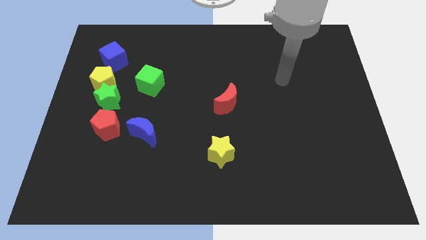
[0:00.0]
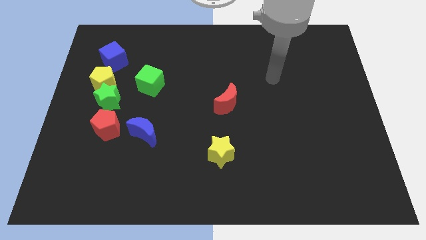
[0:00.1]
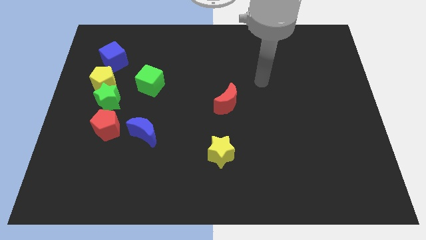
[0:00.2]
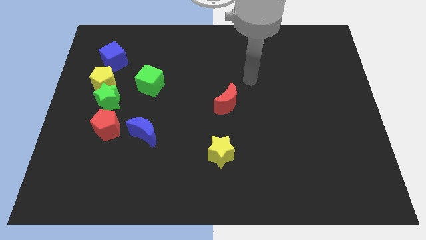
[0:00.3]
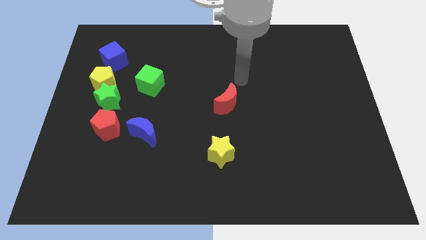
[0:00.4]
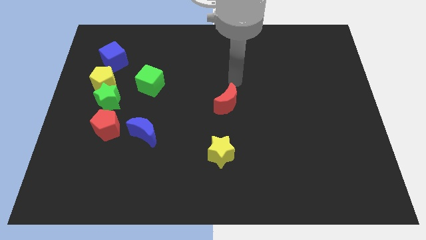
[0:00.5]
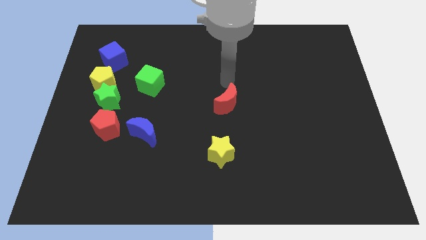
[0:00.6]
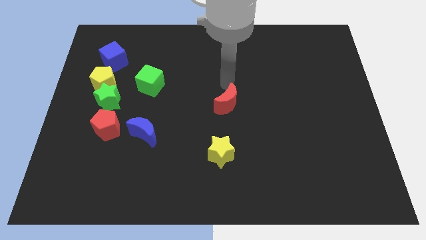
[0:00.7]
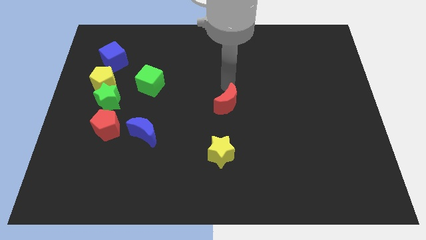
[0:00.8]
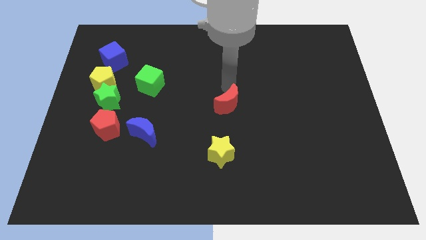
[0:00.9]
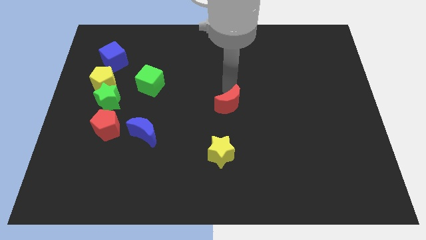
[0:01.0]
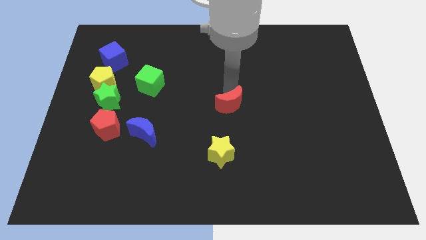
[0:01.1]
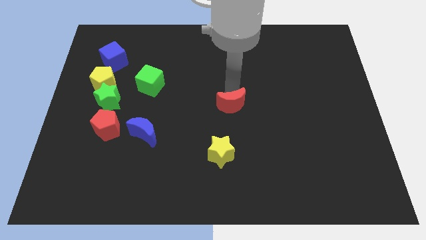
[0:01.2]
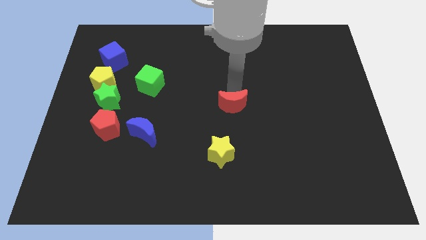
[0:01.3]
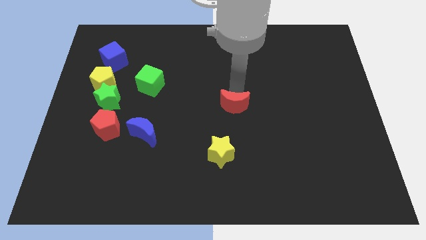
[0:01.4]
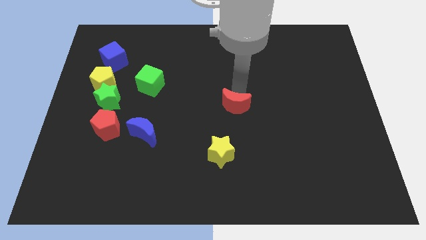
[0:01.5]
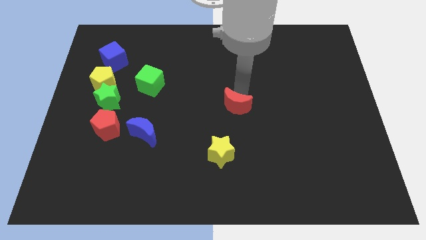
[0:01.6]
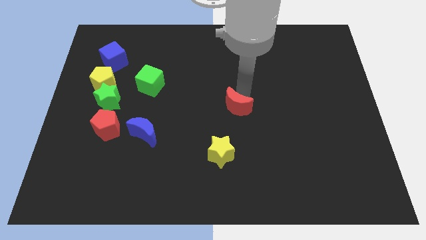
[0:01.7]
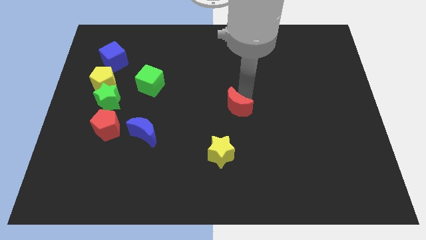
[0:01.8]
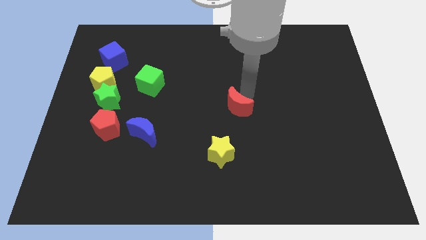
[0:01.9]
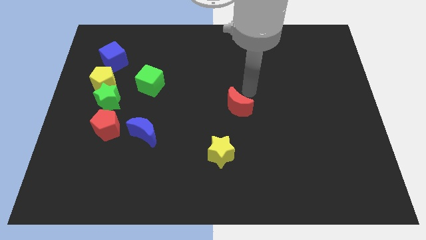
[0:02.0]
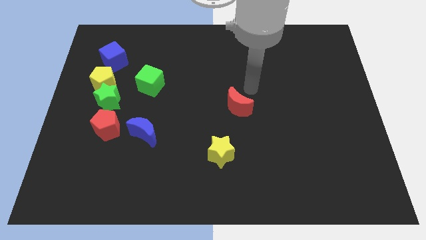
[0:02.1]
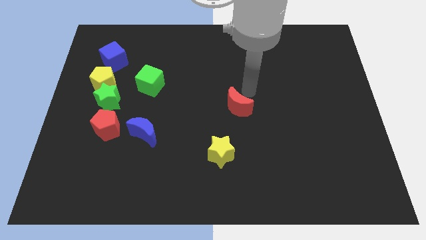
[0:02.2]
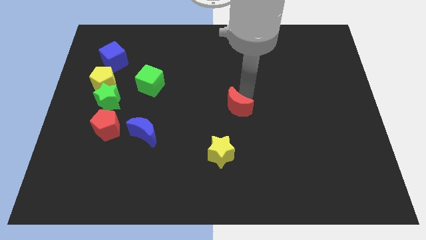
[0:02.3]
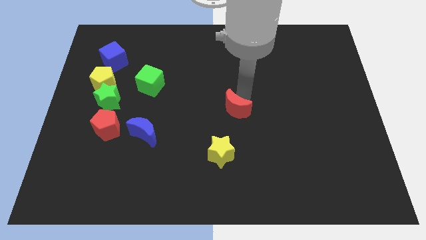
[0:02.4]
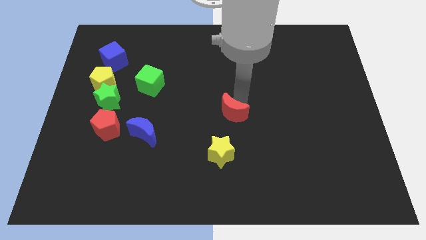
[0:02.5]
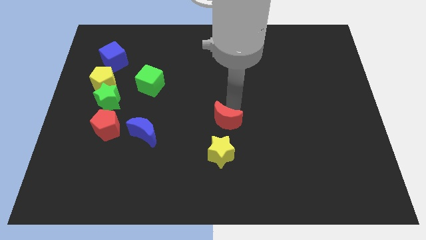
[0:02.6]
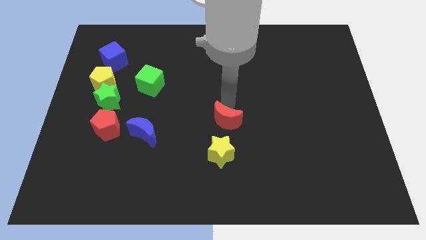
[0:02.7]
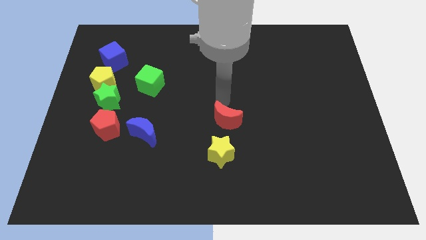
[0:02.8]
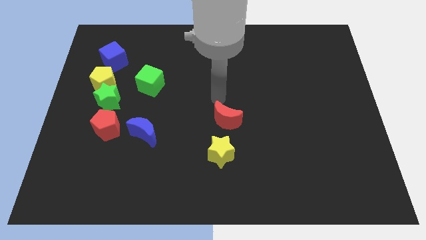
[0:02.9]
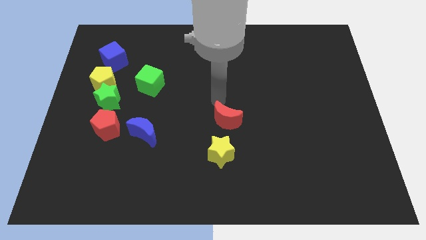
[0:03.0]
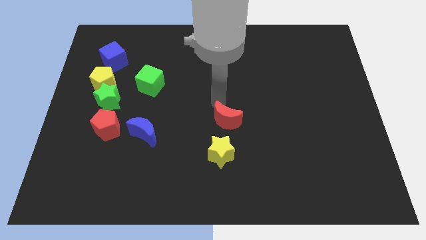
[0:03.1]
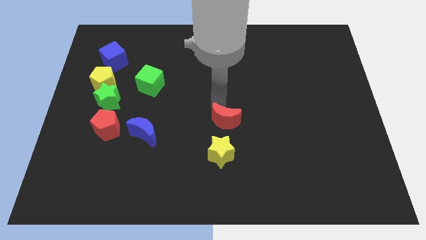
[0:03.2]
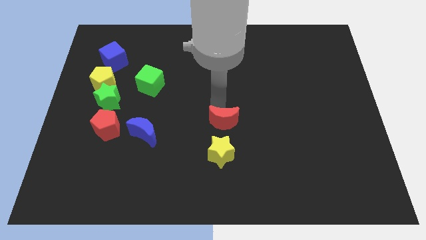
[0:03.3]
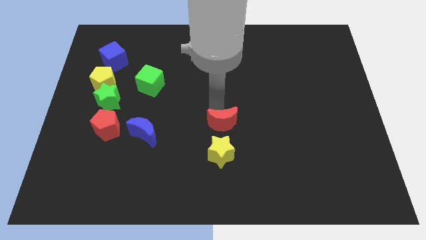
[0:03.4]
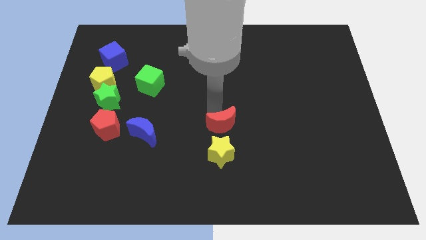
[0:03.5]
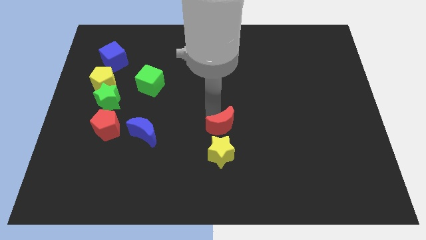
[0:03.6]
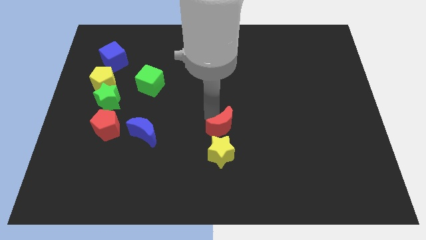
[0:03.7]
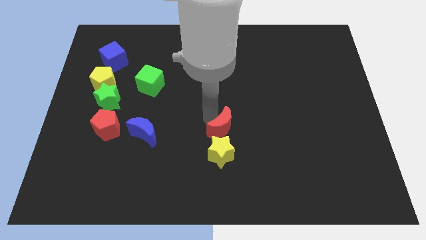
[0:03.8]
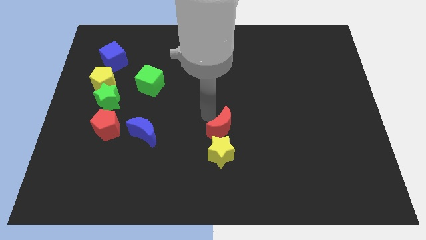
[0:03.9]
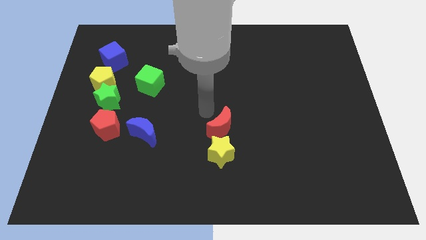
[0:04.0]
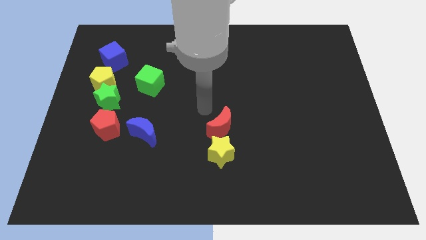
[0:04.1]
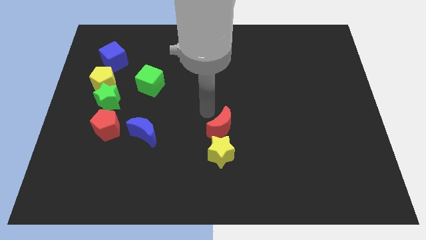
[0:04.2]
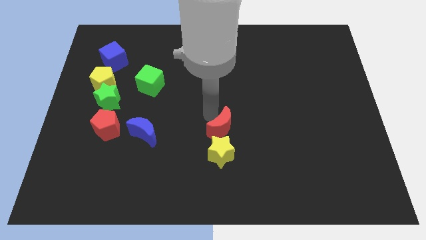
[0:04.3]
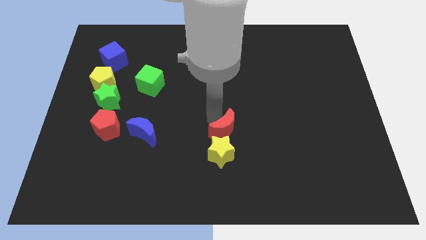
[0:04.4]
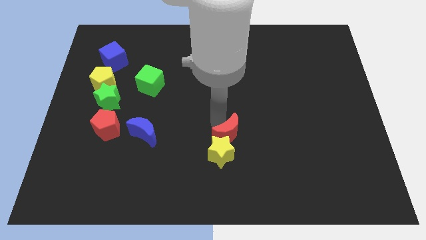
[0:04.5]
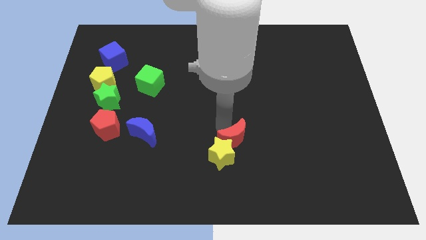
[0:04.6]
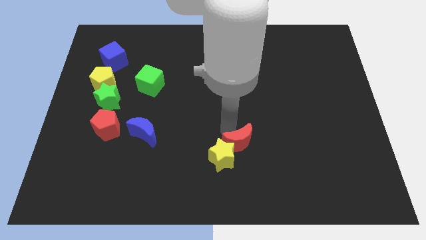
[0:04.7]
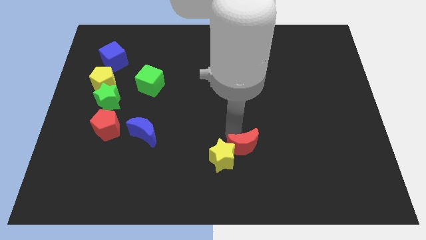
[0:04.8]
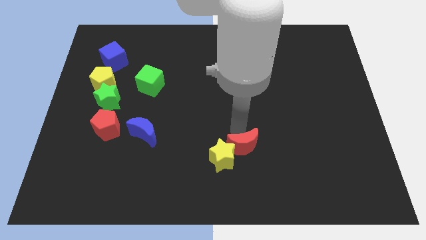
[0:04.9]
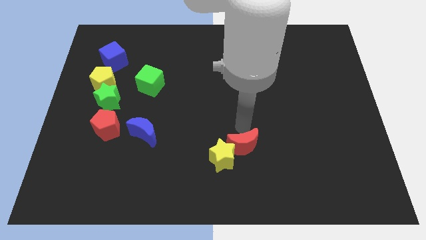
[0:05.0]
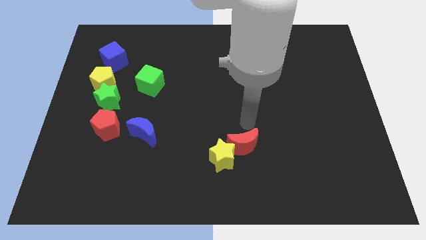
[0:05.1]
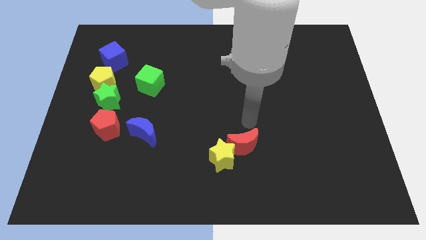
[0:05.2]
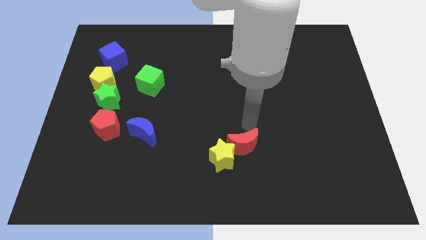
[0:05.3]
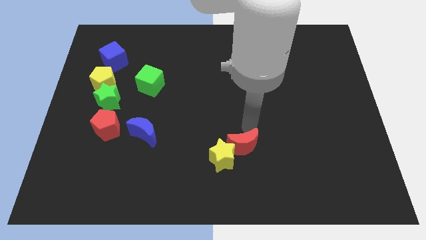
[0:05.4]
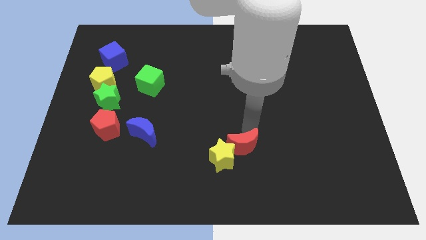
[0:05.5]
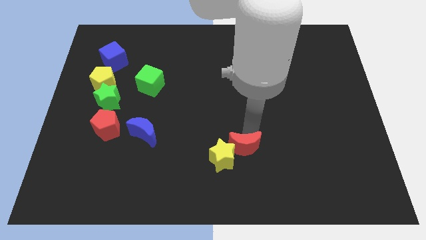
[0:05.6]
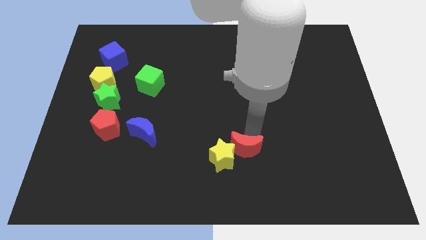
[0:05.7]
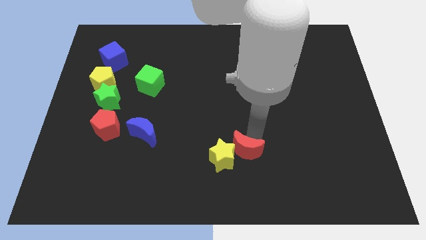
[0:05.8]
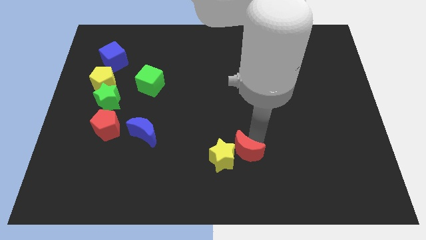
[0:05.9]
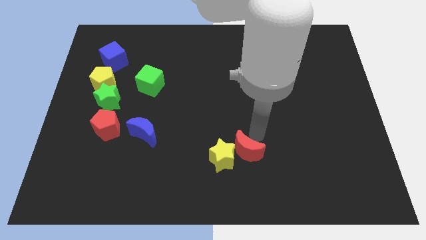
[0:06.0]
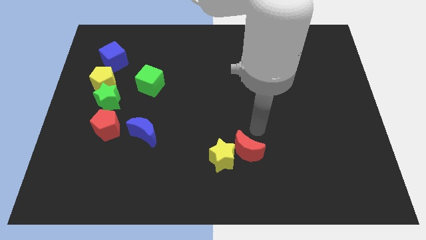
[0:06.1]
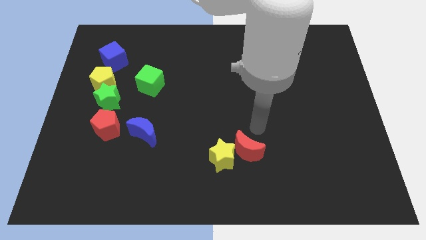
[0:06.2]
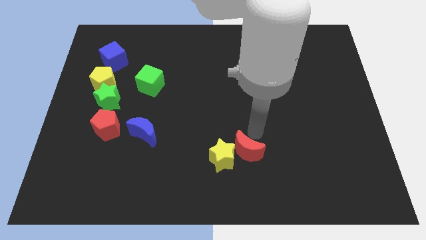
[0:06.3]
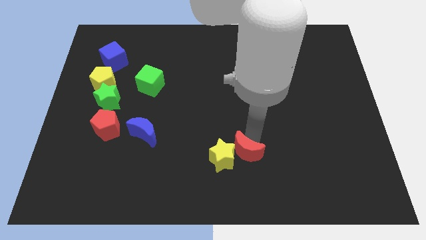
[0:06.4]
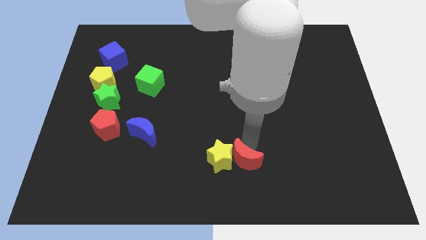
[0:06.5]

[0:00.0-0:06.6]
move the red moon to the bottom side

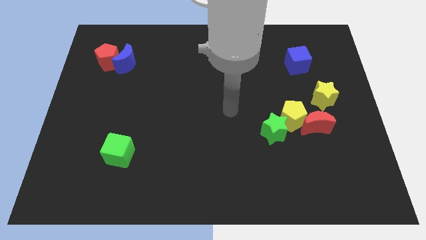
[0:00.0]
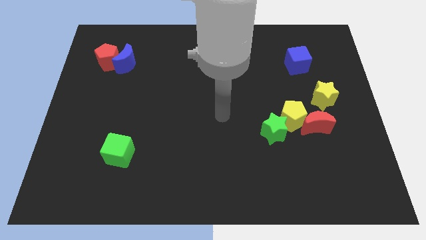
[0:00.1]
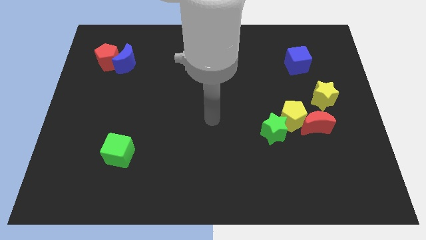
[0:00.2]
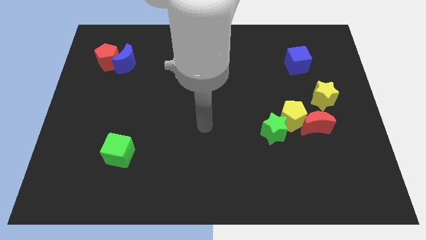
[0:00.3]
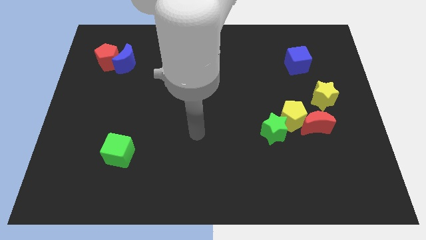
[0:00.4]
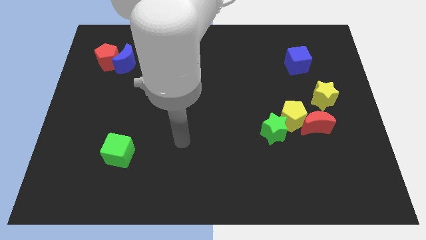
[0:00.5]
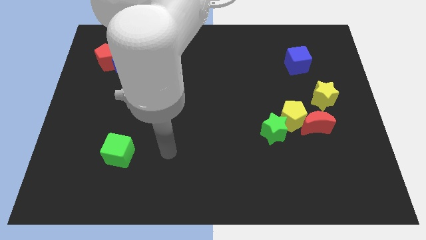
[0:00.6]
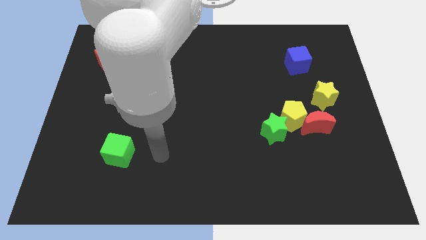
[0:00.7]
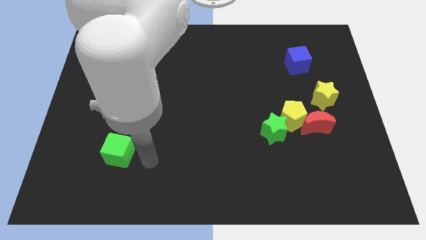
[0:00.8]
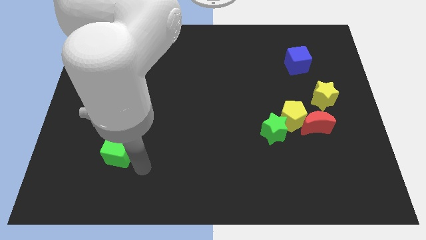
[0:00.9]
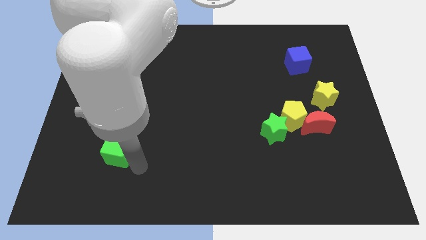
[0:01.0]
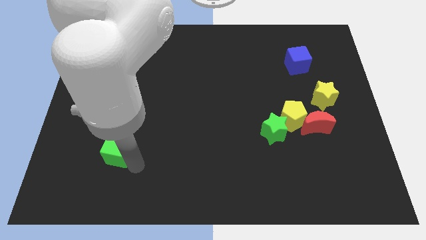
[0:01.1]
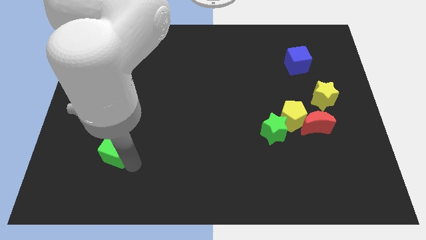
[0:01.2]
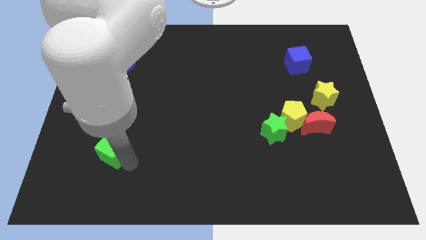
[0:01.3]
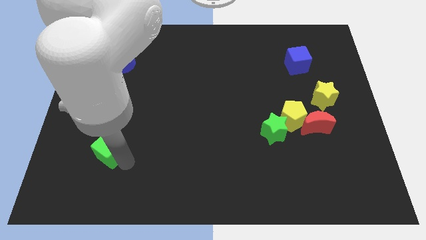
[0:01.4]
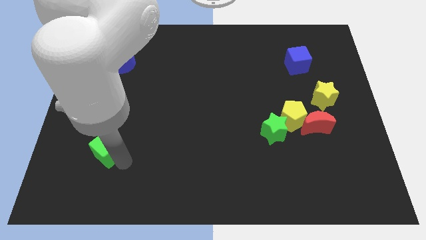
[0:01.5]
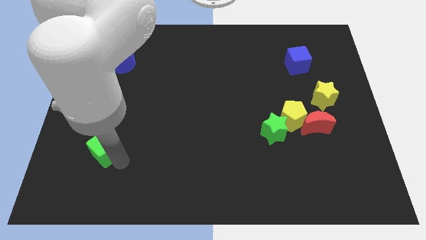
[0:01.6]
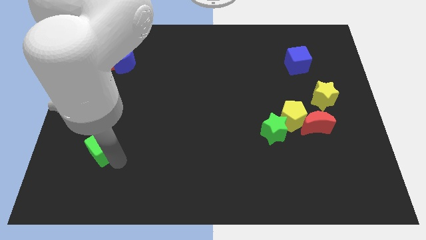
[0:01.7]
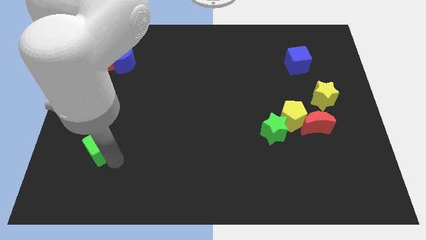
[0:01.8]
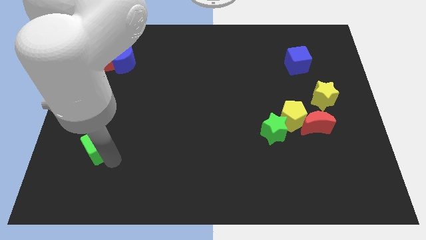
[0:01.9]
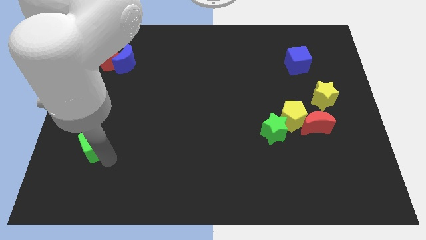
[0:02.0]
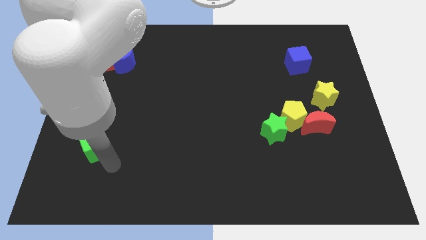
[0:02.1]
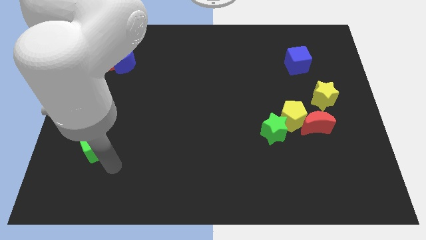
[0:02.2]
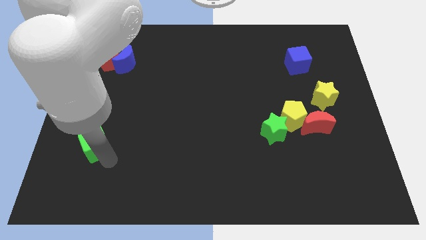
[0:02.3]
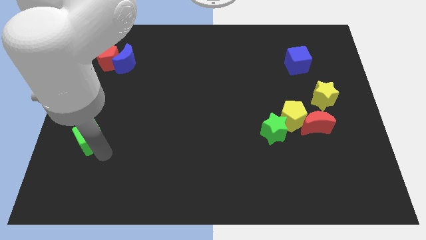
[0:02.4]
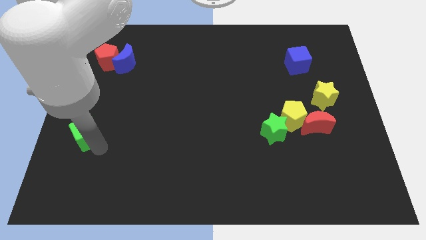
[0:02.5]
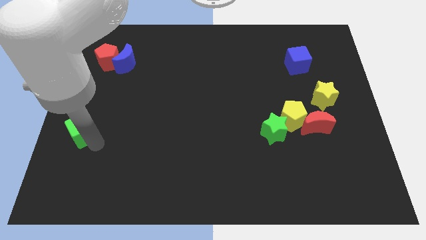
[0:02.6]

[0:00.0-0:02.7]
slide the green cube to the left side
